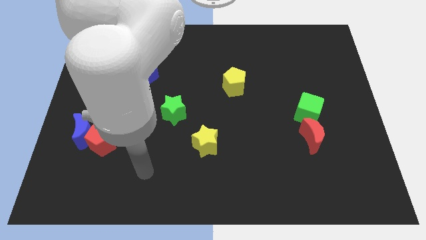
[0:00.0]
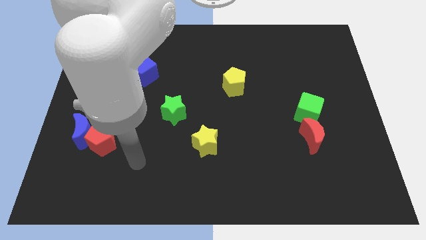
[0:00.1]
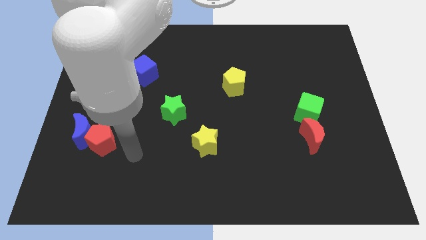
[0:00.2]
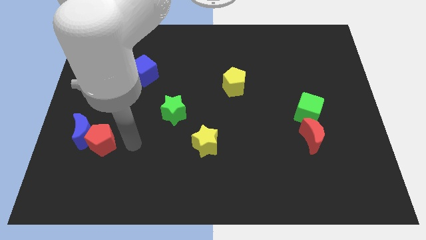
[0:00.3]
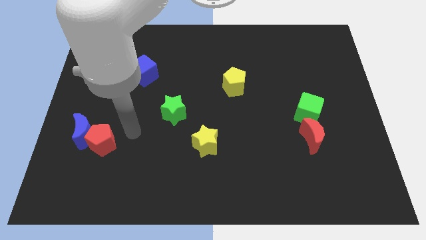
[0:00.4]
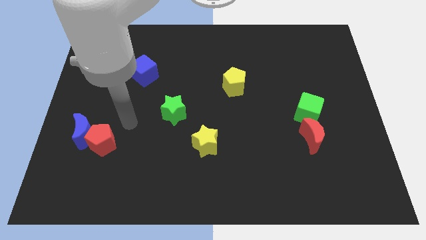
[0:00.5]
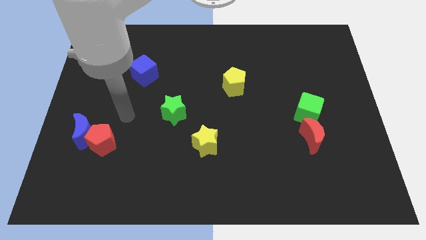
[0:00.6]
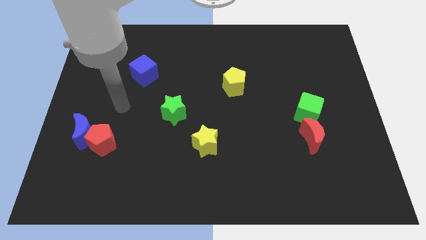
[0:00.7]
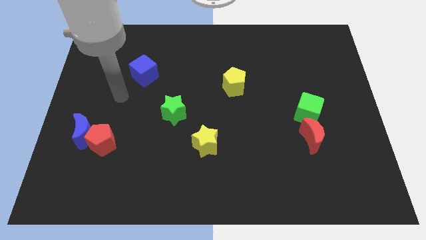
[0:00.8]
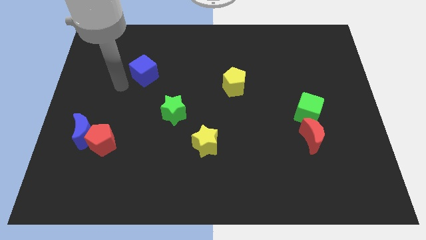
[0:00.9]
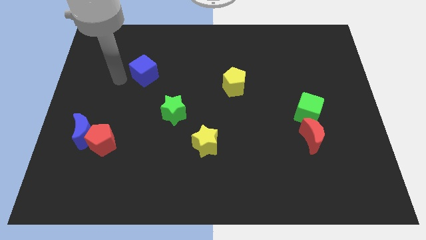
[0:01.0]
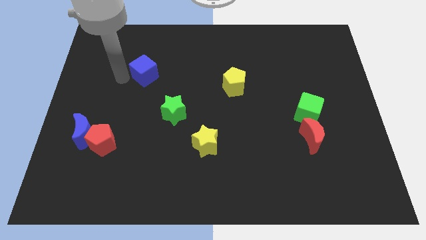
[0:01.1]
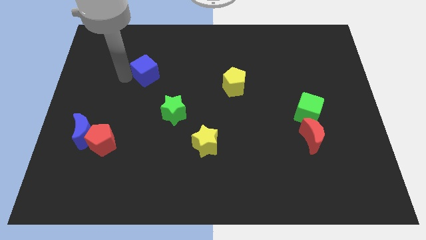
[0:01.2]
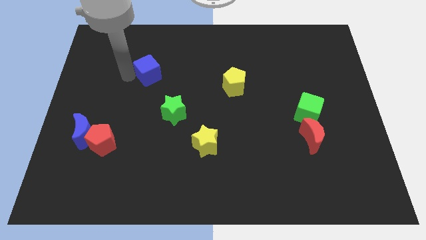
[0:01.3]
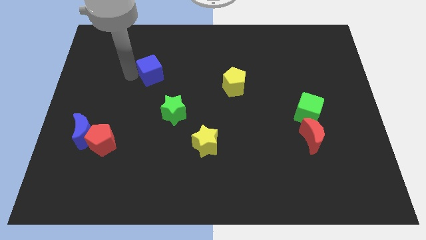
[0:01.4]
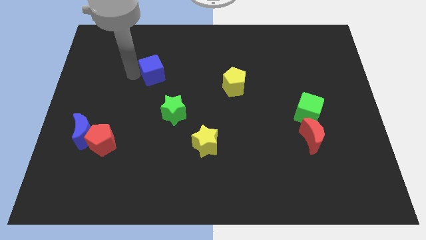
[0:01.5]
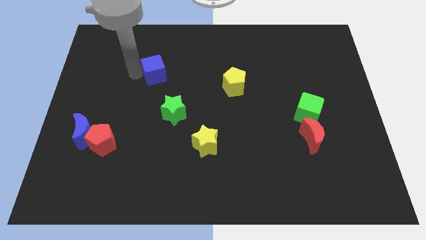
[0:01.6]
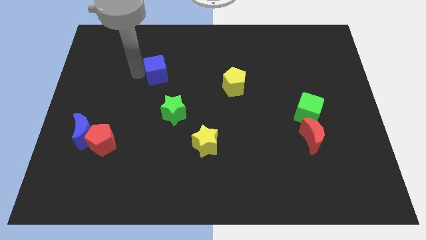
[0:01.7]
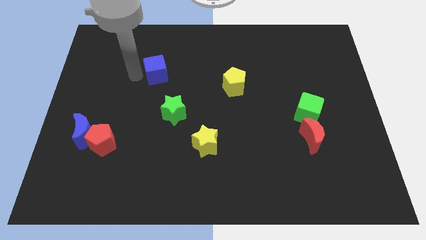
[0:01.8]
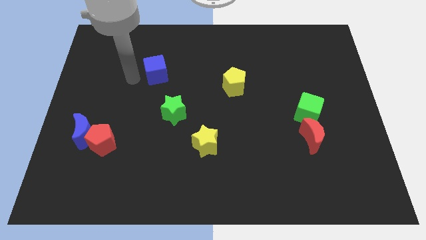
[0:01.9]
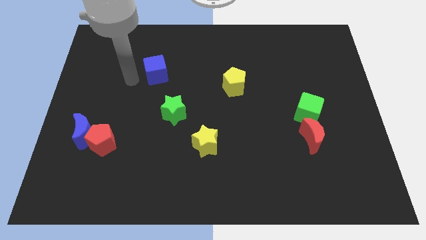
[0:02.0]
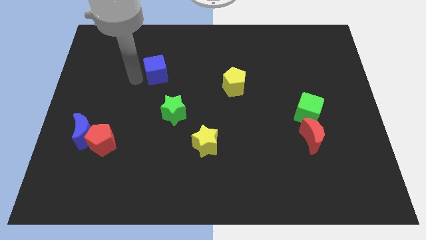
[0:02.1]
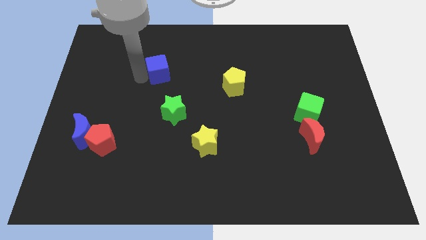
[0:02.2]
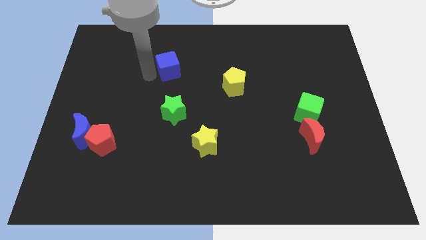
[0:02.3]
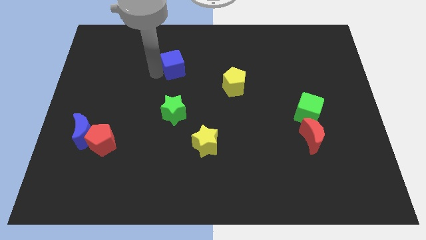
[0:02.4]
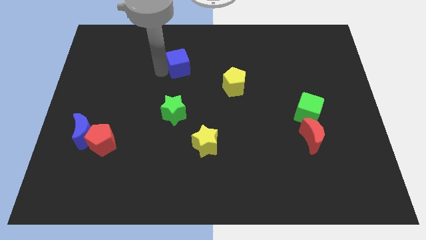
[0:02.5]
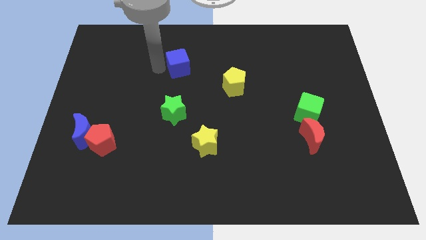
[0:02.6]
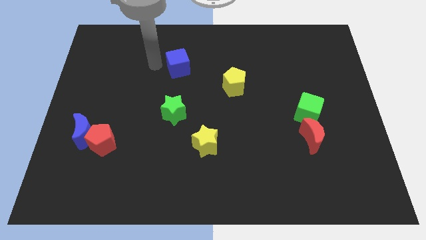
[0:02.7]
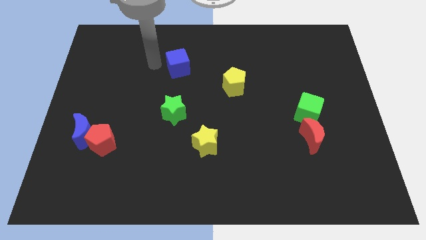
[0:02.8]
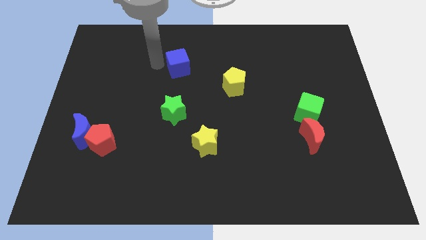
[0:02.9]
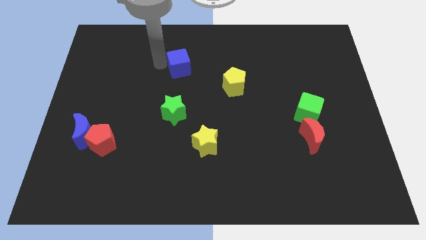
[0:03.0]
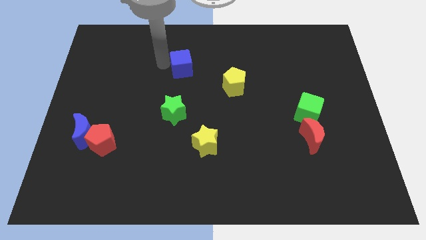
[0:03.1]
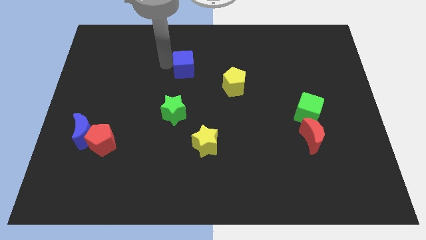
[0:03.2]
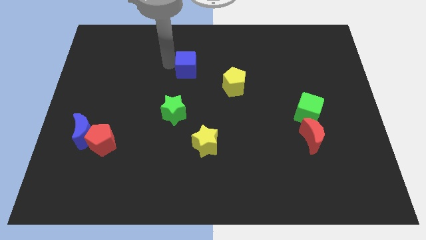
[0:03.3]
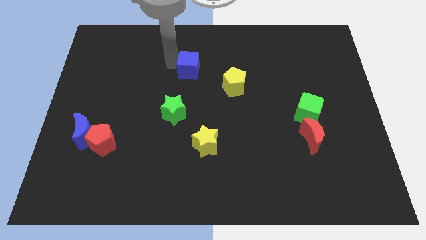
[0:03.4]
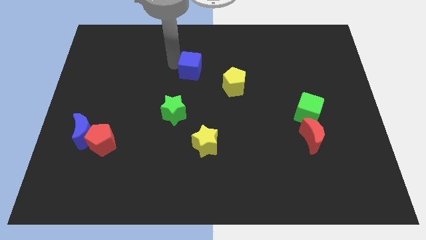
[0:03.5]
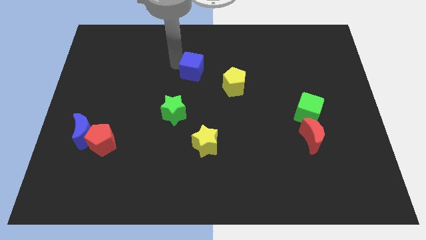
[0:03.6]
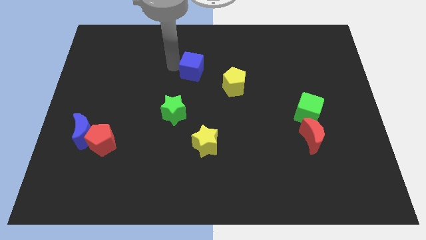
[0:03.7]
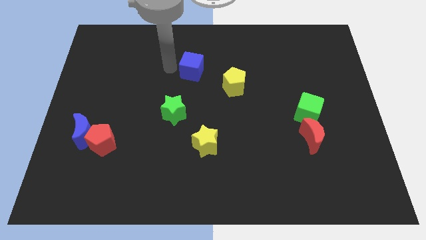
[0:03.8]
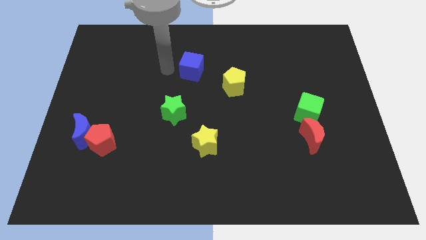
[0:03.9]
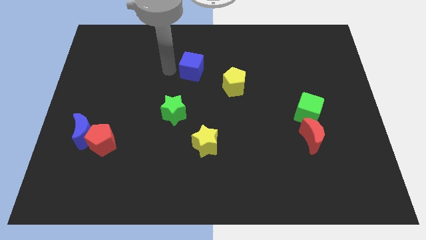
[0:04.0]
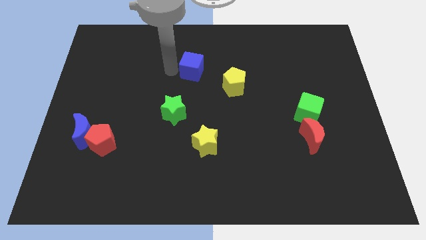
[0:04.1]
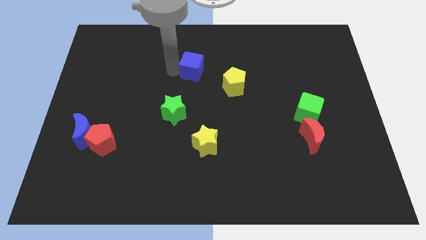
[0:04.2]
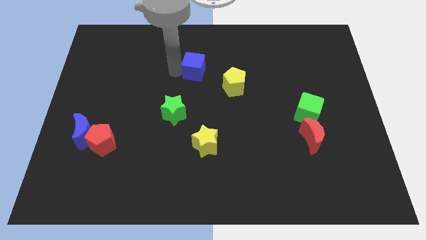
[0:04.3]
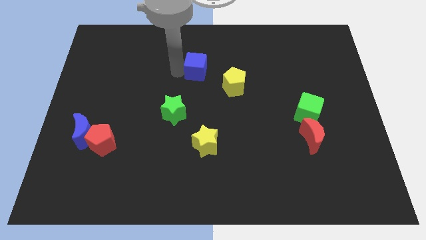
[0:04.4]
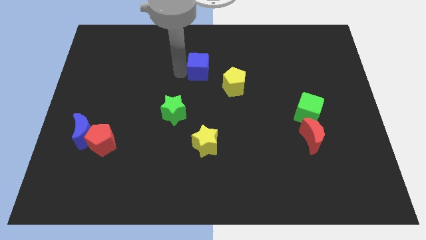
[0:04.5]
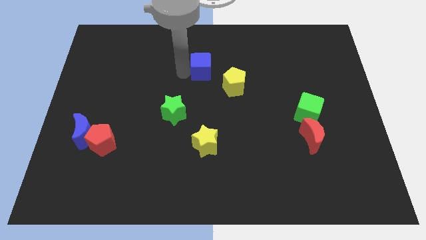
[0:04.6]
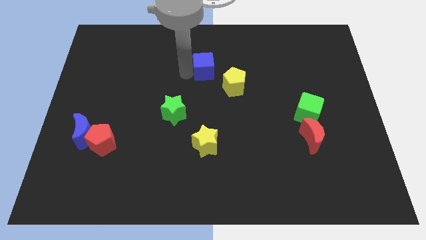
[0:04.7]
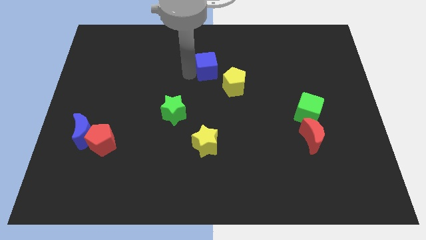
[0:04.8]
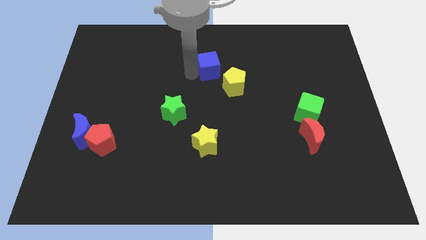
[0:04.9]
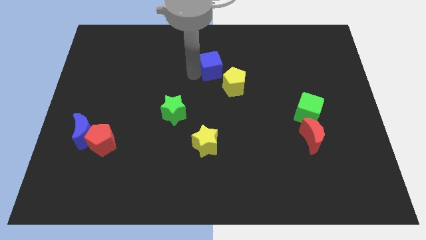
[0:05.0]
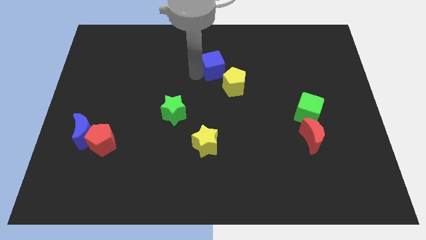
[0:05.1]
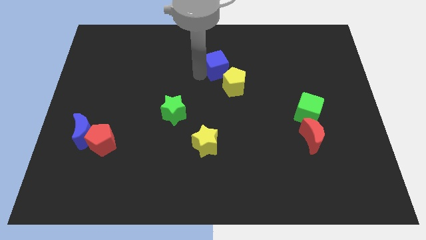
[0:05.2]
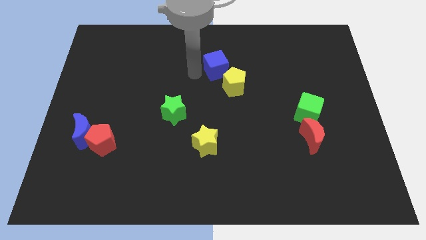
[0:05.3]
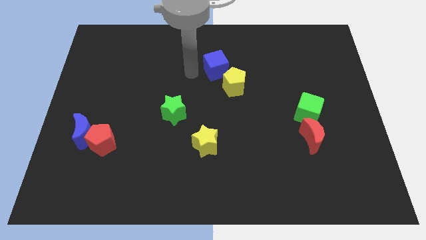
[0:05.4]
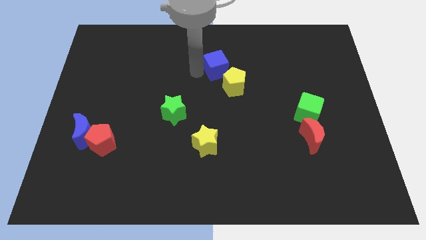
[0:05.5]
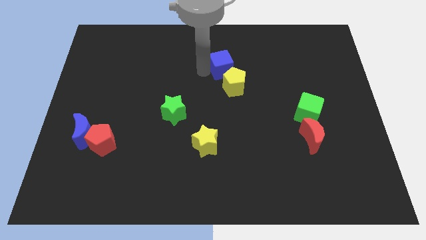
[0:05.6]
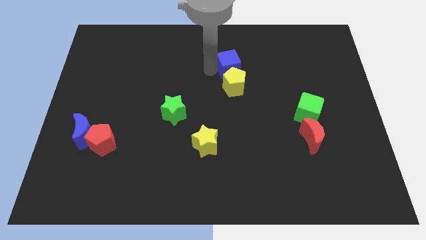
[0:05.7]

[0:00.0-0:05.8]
move the blue cube right

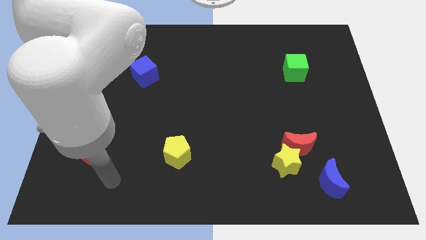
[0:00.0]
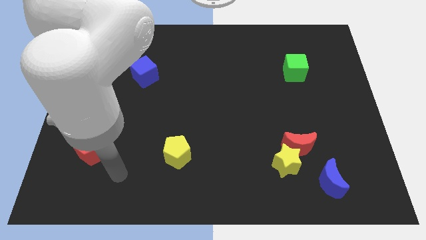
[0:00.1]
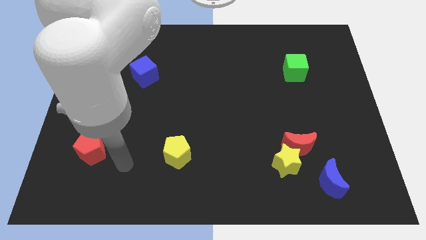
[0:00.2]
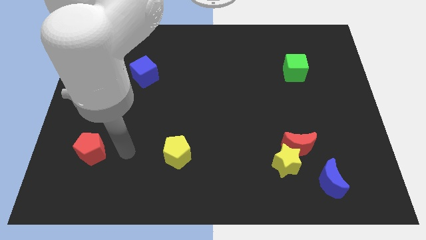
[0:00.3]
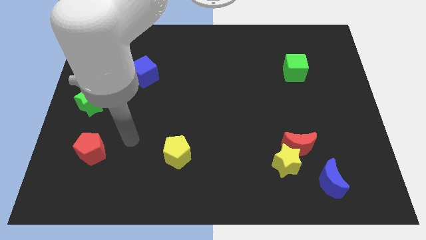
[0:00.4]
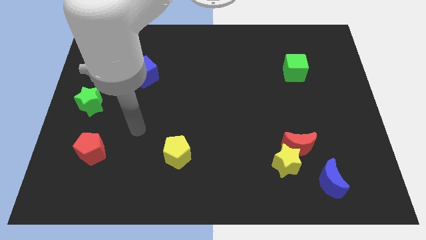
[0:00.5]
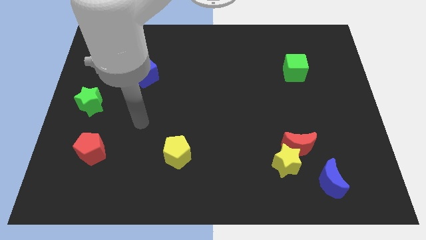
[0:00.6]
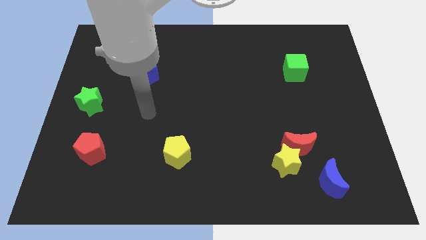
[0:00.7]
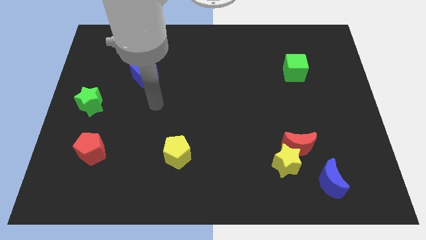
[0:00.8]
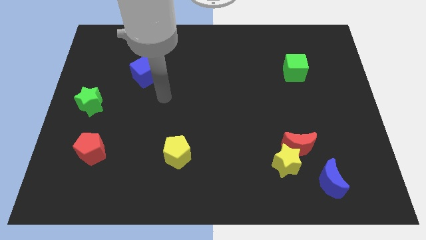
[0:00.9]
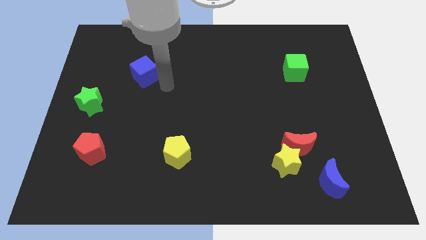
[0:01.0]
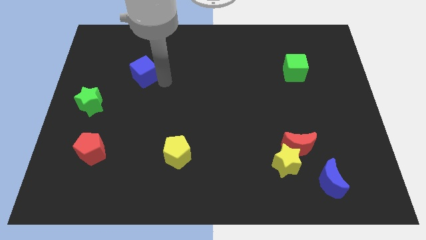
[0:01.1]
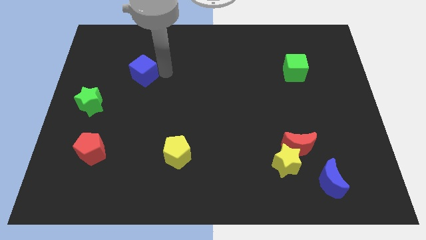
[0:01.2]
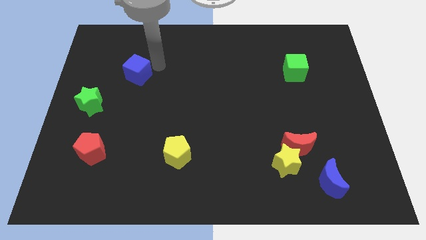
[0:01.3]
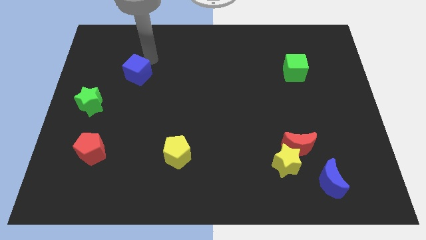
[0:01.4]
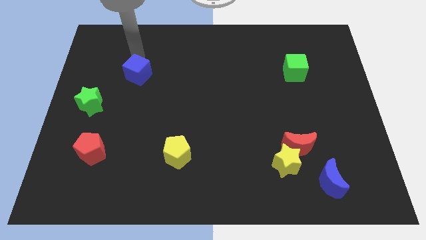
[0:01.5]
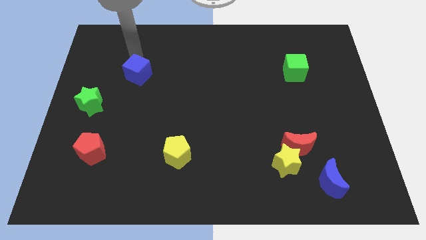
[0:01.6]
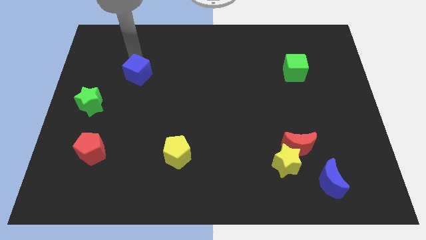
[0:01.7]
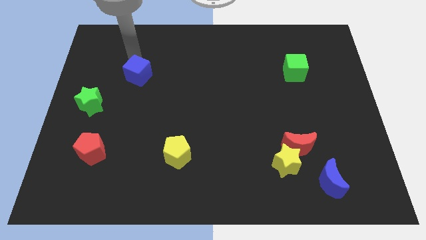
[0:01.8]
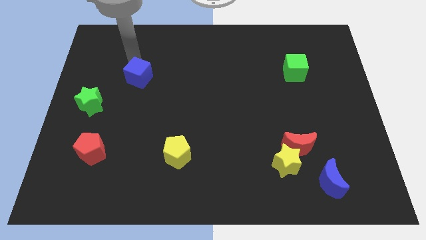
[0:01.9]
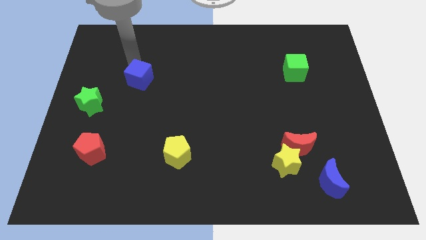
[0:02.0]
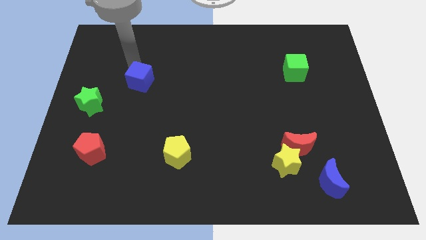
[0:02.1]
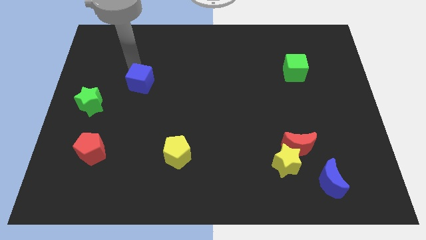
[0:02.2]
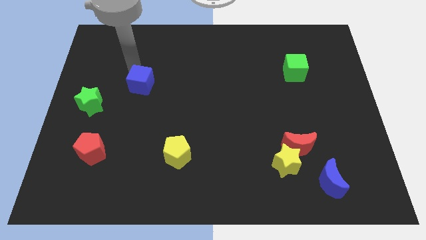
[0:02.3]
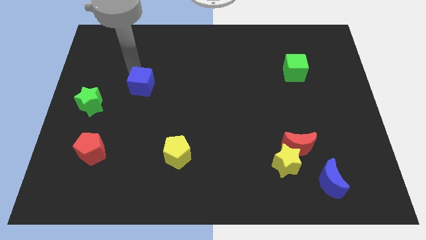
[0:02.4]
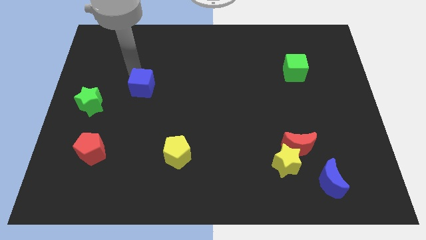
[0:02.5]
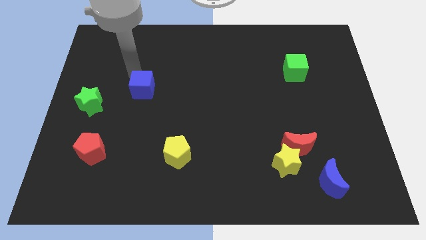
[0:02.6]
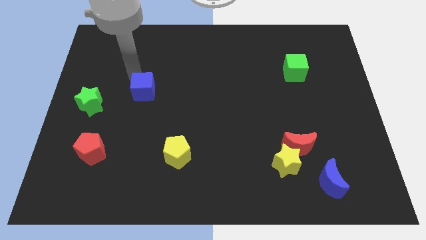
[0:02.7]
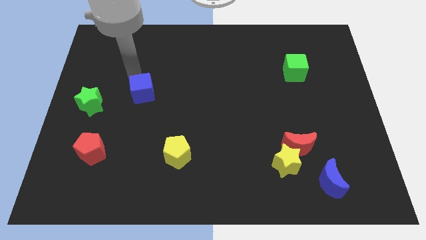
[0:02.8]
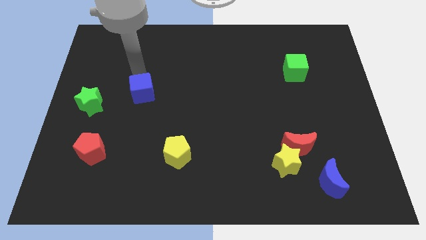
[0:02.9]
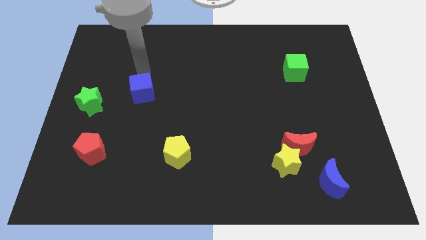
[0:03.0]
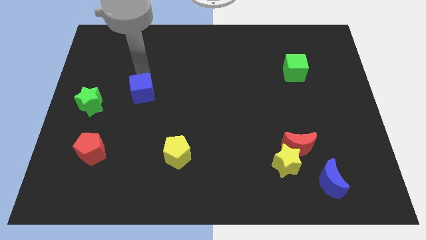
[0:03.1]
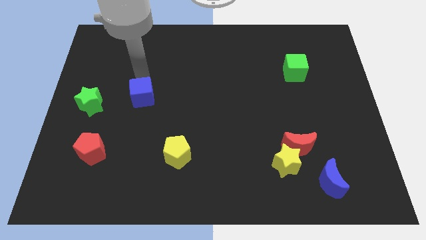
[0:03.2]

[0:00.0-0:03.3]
slide the blue cube a little down
